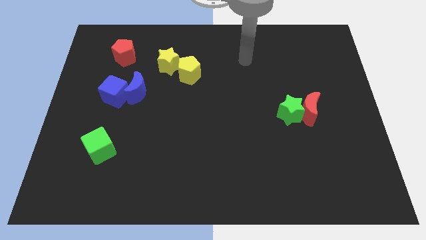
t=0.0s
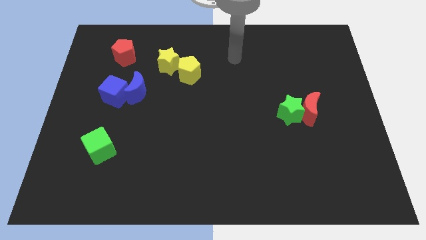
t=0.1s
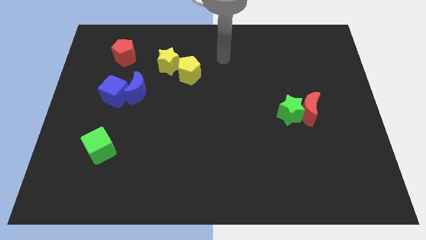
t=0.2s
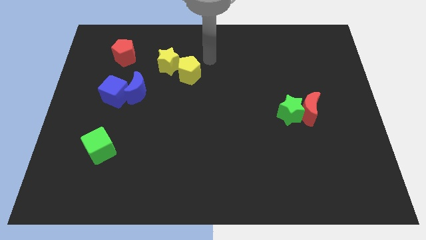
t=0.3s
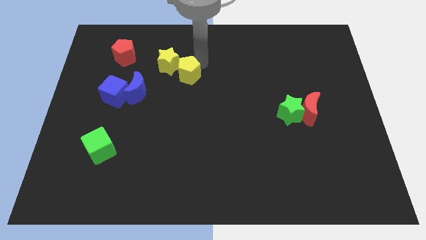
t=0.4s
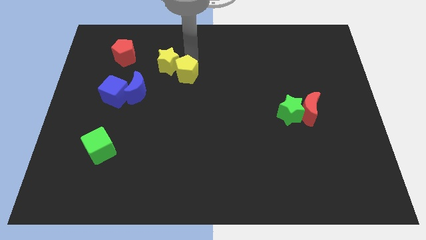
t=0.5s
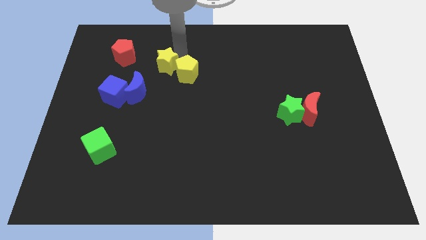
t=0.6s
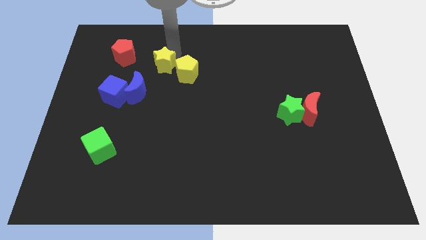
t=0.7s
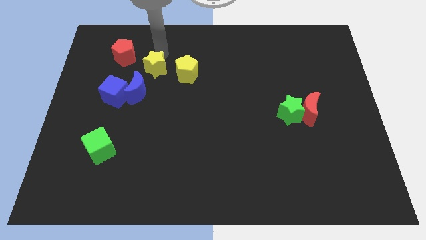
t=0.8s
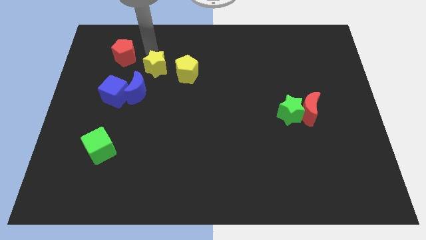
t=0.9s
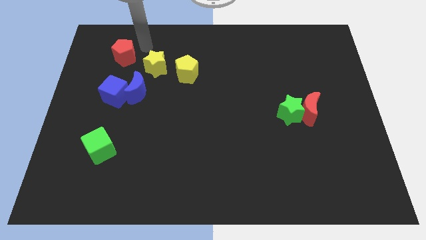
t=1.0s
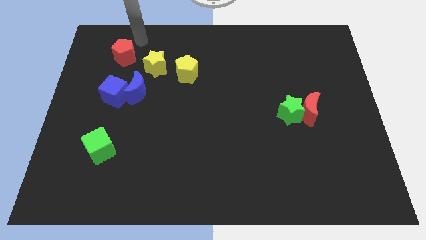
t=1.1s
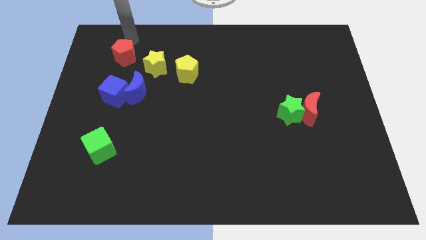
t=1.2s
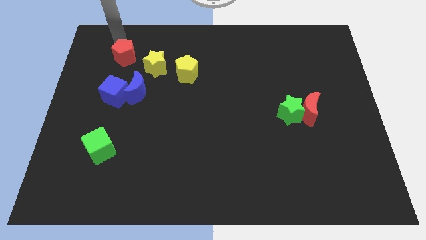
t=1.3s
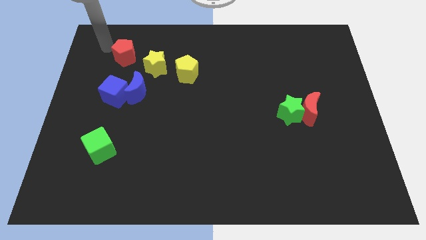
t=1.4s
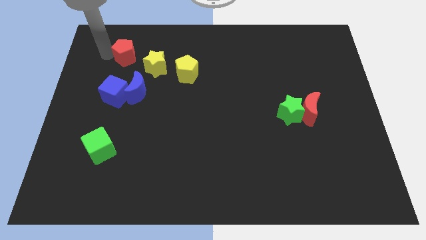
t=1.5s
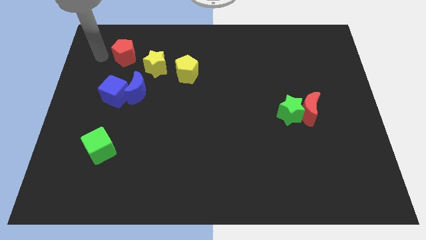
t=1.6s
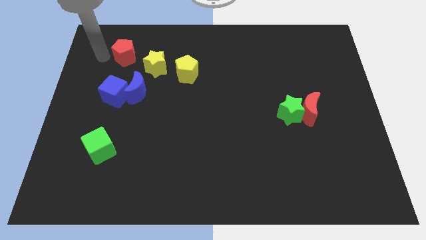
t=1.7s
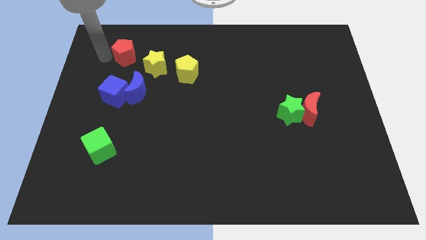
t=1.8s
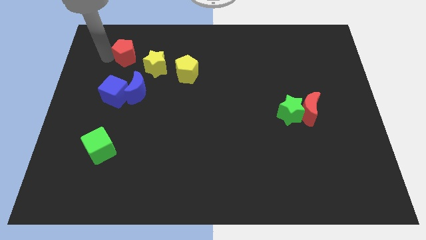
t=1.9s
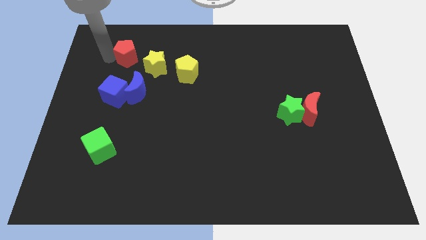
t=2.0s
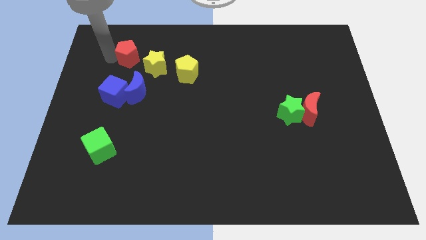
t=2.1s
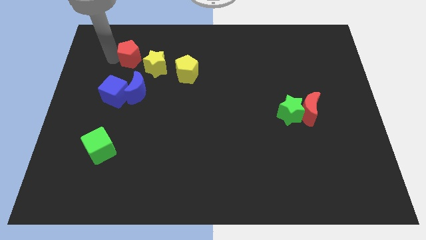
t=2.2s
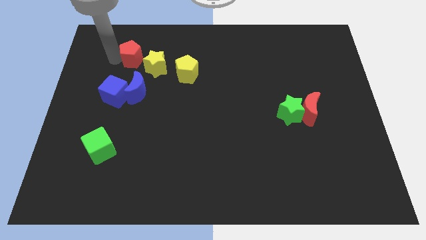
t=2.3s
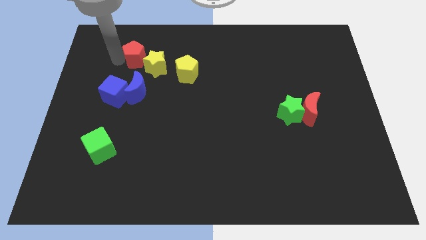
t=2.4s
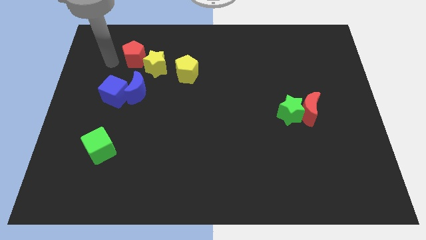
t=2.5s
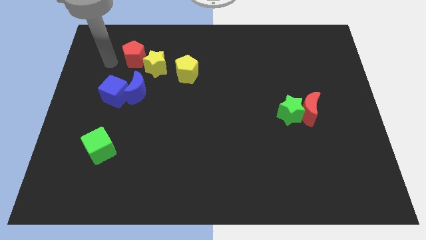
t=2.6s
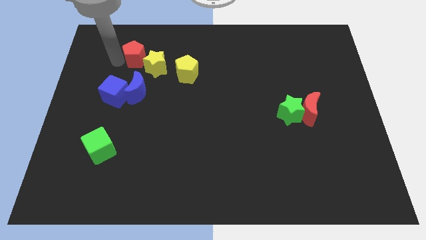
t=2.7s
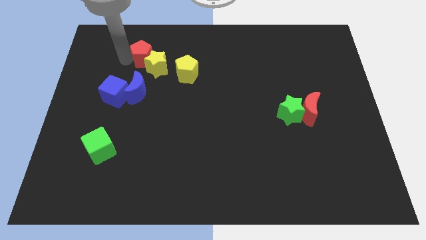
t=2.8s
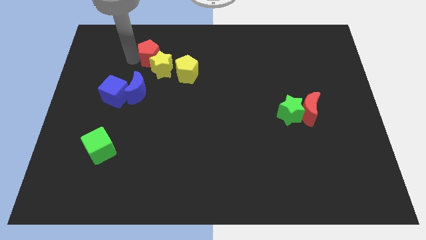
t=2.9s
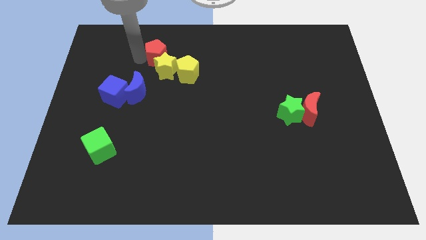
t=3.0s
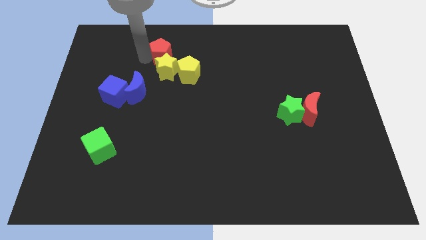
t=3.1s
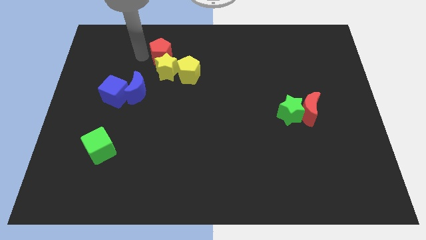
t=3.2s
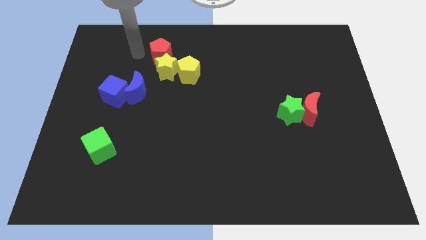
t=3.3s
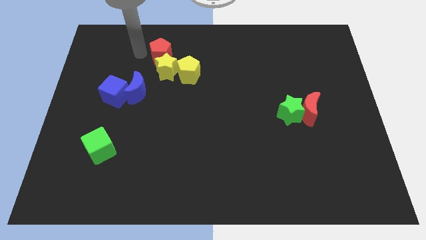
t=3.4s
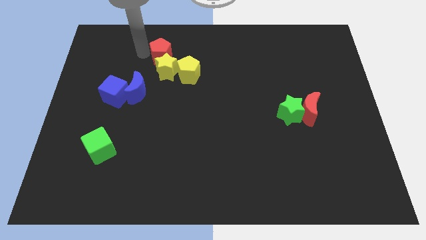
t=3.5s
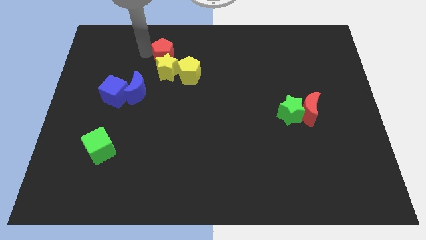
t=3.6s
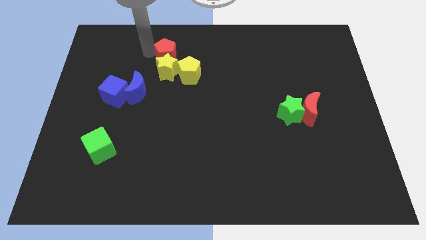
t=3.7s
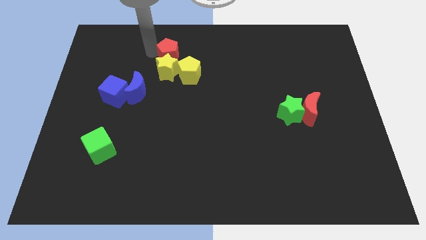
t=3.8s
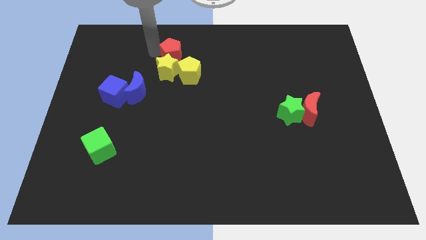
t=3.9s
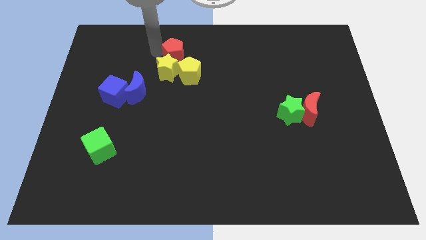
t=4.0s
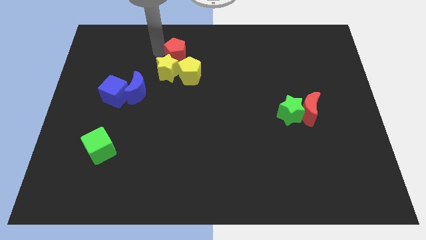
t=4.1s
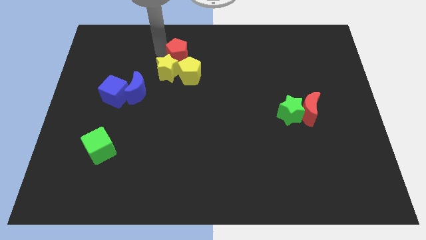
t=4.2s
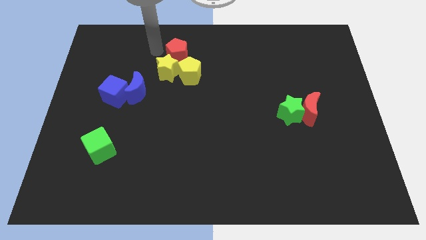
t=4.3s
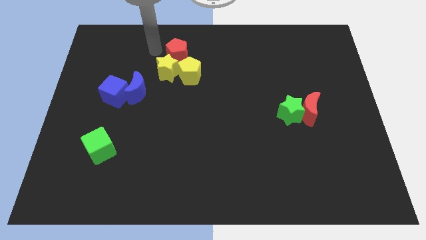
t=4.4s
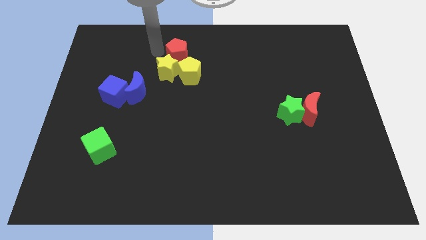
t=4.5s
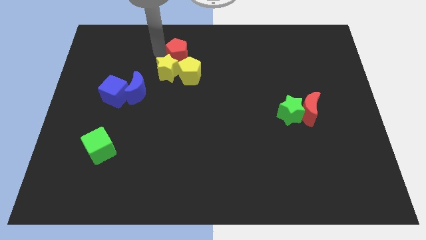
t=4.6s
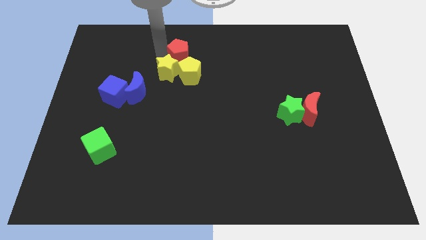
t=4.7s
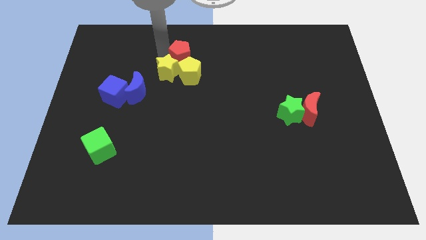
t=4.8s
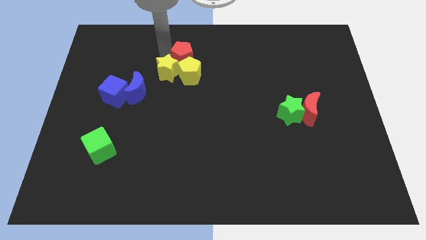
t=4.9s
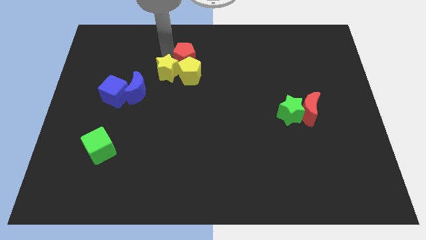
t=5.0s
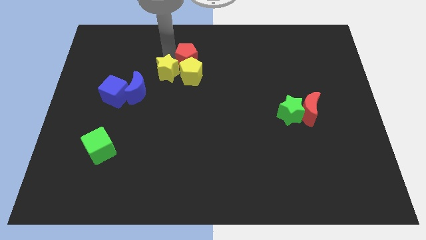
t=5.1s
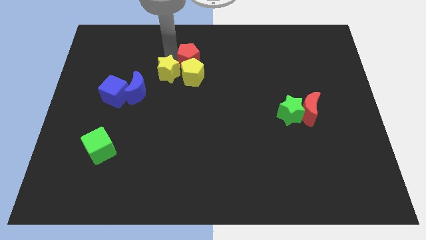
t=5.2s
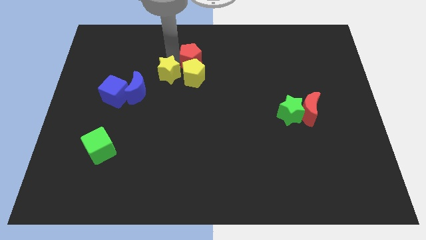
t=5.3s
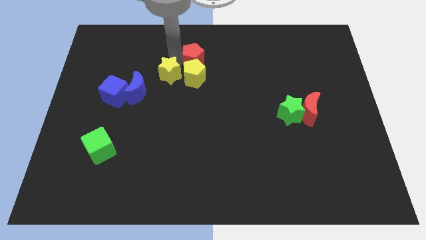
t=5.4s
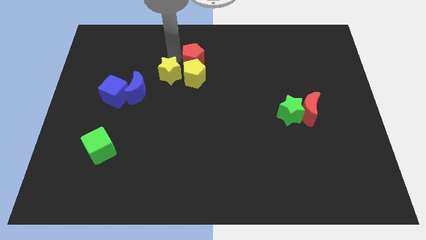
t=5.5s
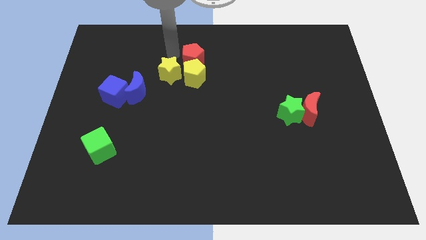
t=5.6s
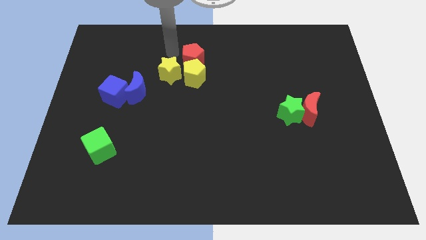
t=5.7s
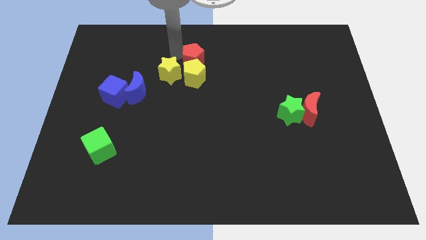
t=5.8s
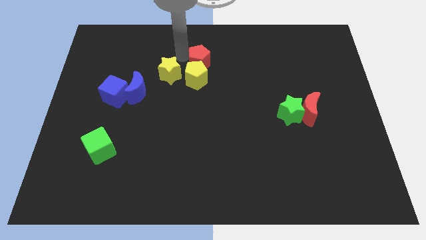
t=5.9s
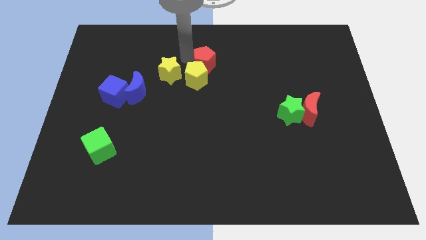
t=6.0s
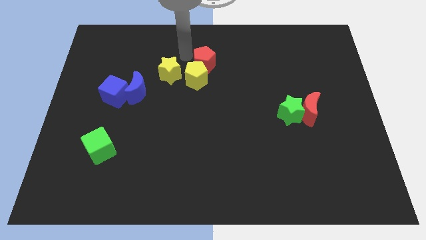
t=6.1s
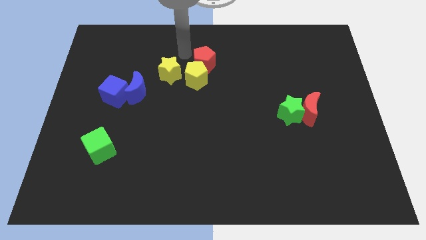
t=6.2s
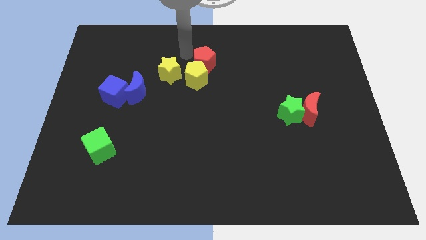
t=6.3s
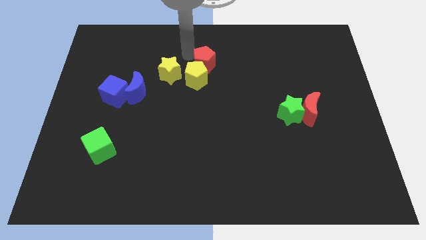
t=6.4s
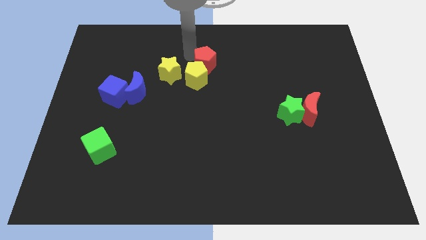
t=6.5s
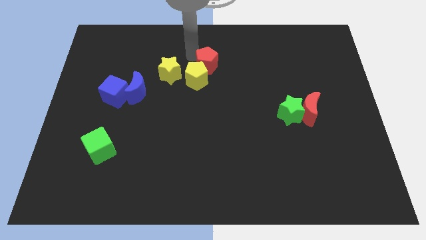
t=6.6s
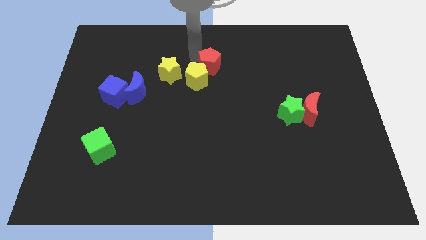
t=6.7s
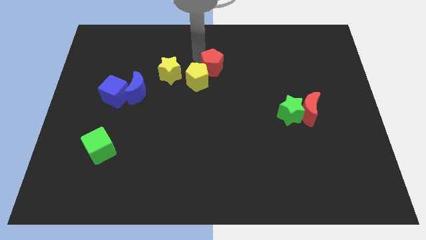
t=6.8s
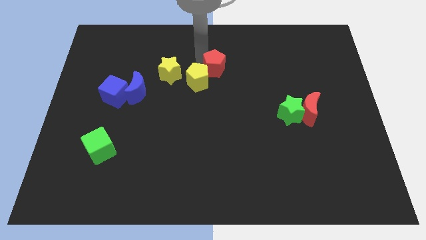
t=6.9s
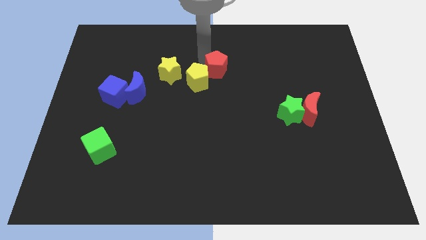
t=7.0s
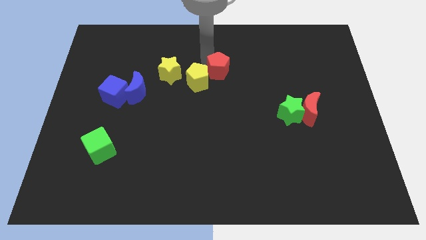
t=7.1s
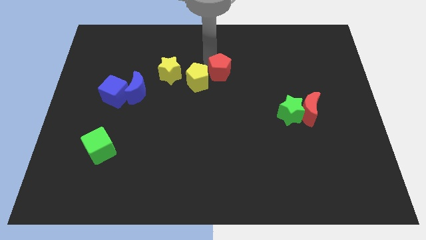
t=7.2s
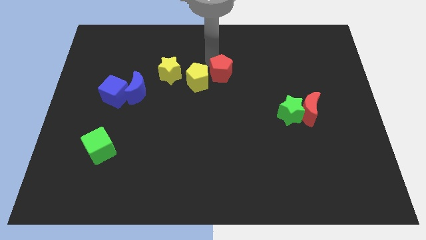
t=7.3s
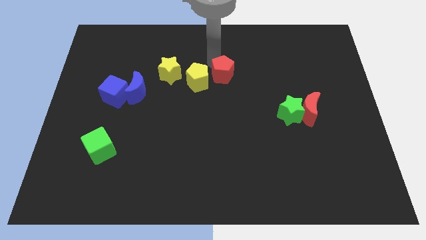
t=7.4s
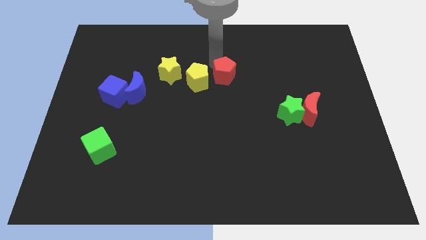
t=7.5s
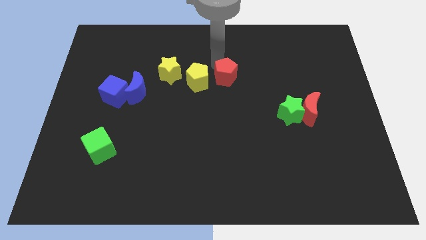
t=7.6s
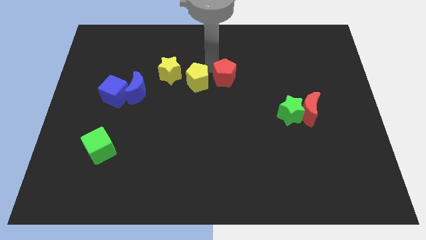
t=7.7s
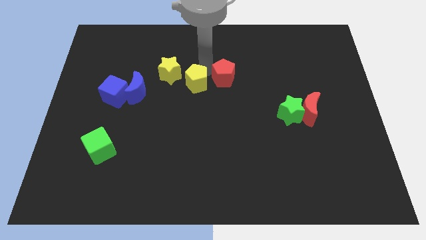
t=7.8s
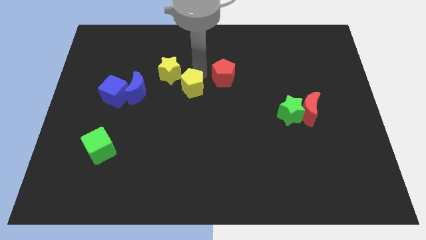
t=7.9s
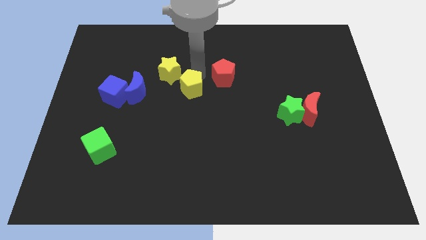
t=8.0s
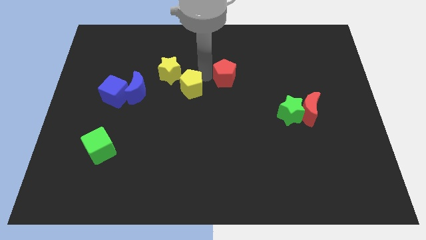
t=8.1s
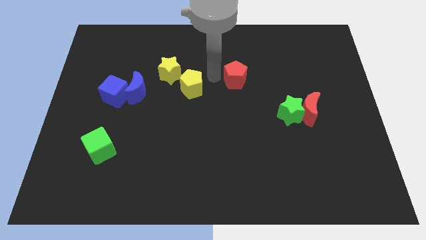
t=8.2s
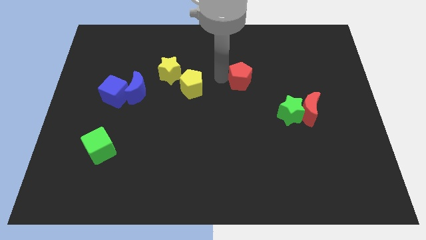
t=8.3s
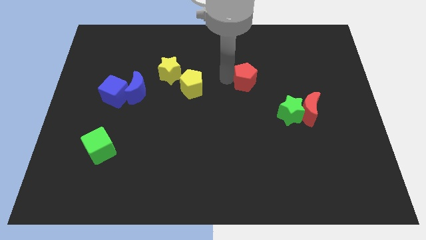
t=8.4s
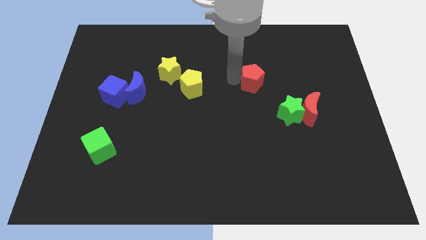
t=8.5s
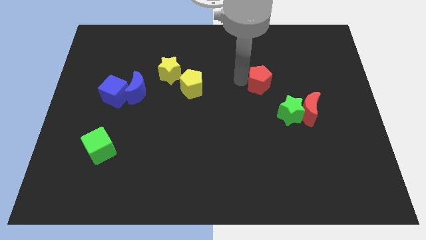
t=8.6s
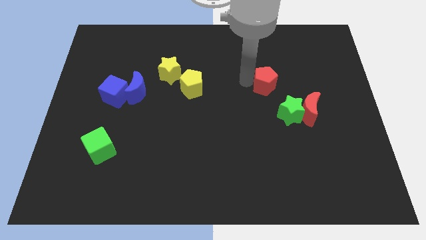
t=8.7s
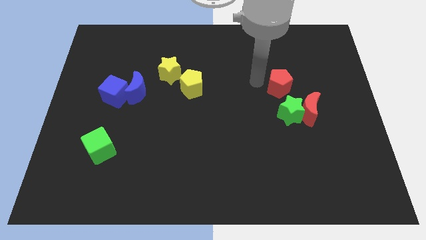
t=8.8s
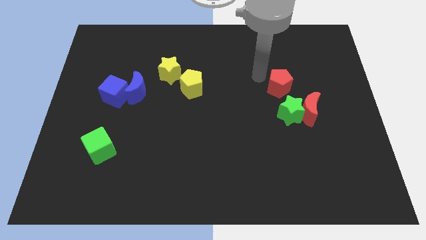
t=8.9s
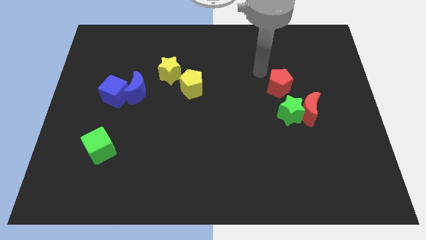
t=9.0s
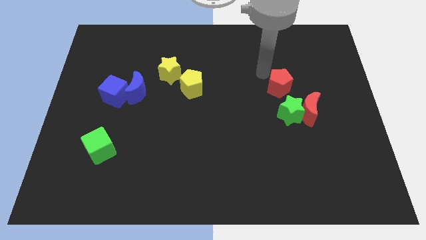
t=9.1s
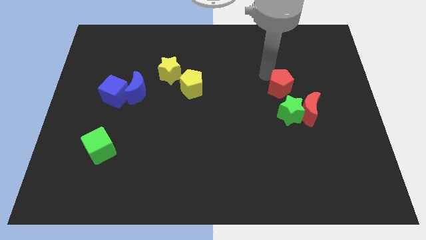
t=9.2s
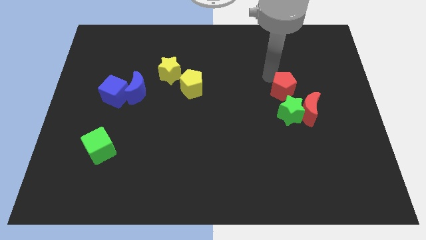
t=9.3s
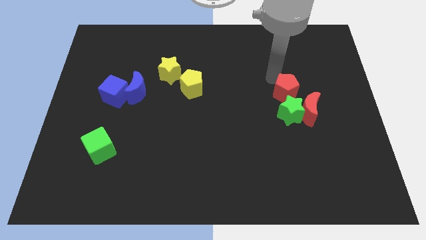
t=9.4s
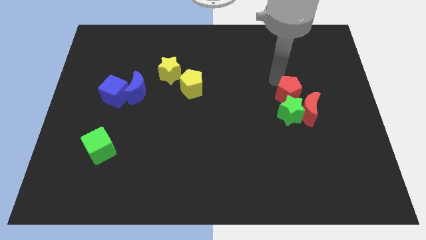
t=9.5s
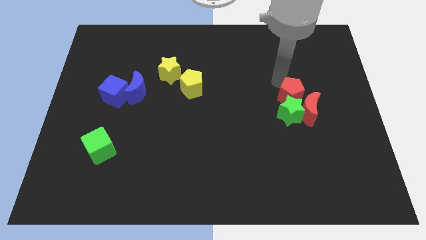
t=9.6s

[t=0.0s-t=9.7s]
put the red pentagon to the red moon
